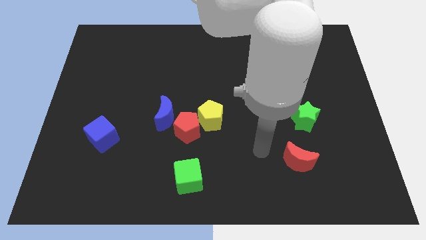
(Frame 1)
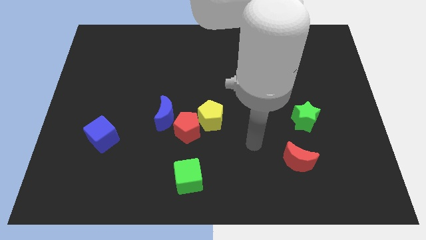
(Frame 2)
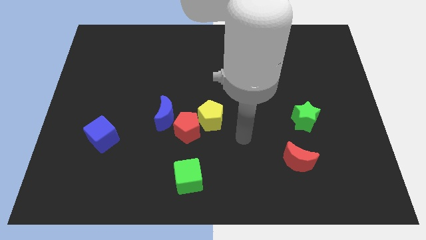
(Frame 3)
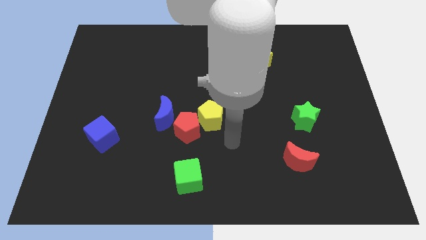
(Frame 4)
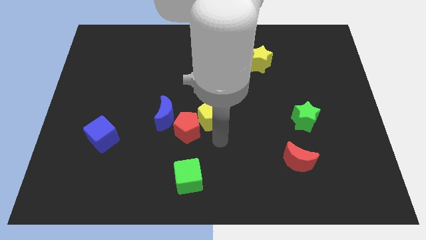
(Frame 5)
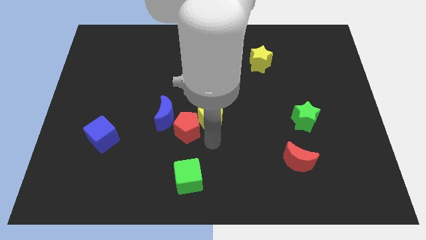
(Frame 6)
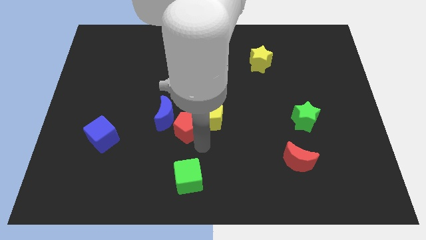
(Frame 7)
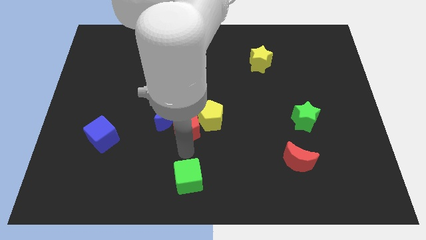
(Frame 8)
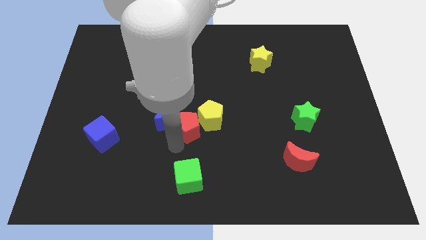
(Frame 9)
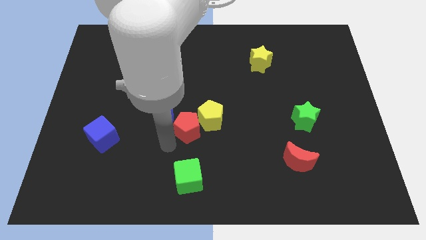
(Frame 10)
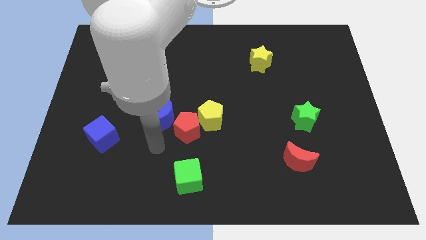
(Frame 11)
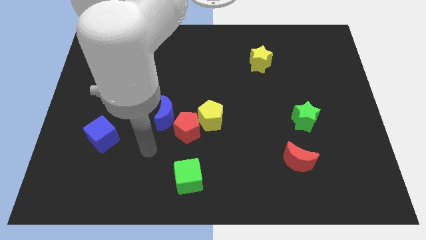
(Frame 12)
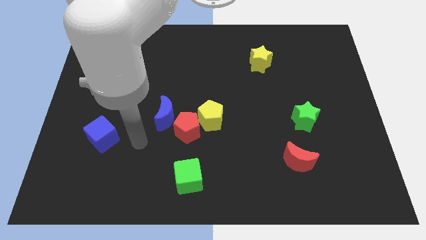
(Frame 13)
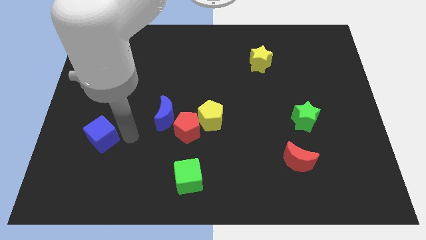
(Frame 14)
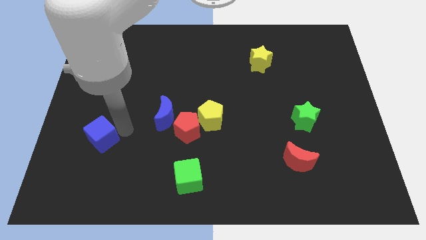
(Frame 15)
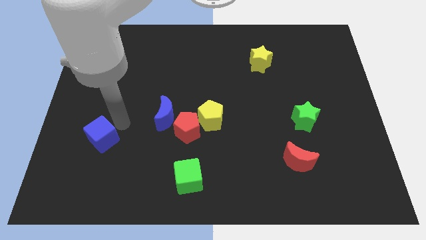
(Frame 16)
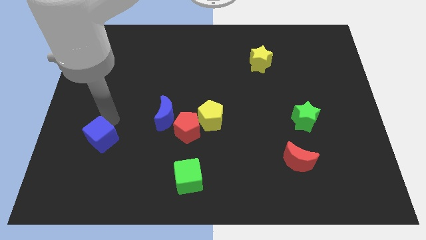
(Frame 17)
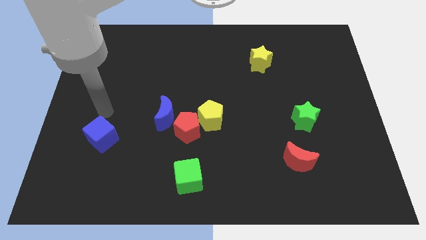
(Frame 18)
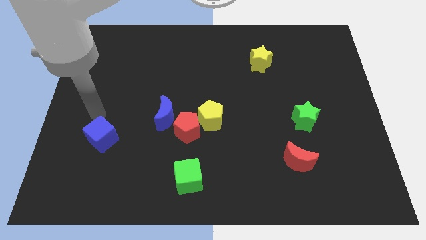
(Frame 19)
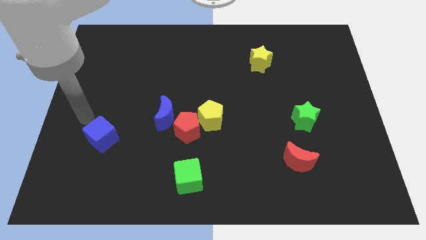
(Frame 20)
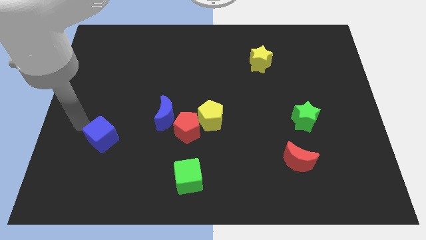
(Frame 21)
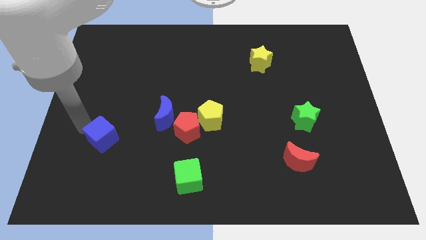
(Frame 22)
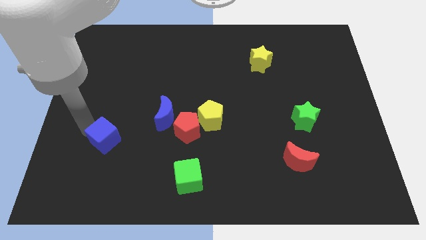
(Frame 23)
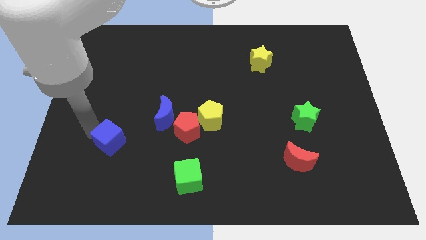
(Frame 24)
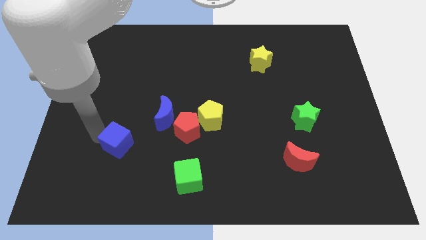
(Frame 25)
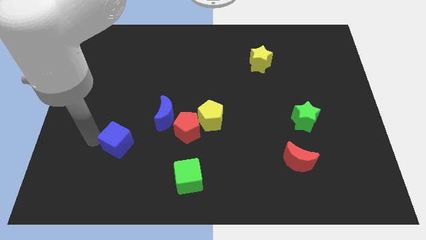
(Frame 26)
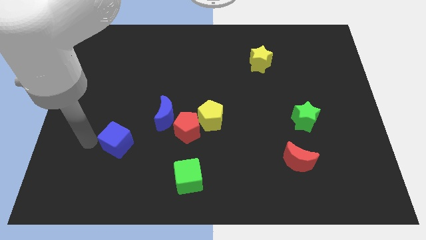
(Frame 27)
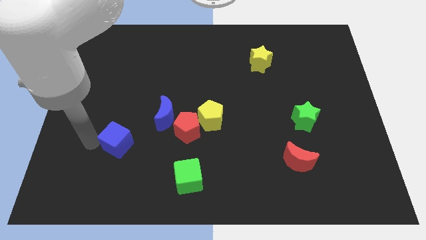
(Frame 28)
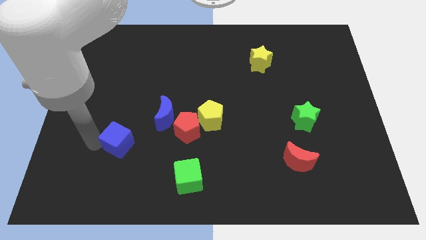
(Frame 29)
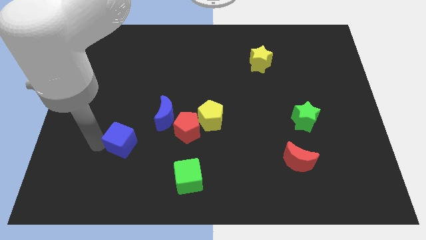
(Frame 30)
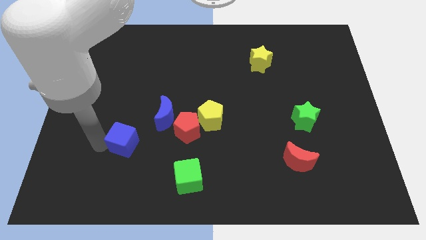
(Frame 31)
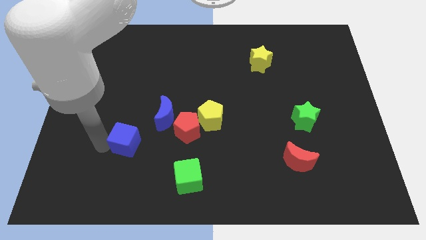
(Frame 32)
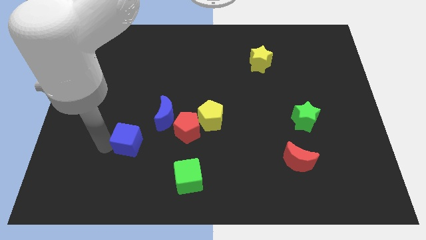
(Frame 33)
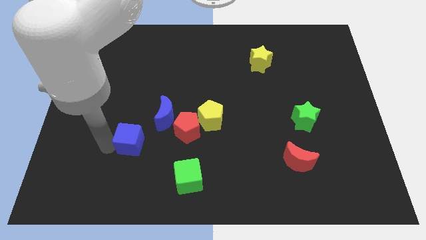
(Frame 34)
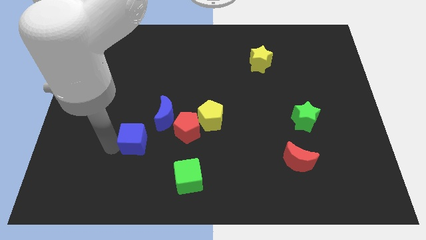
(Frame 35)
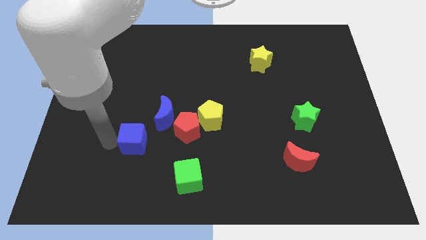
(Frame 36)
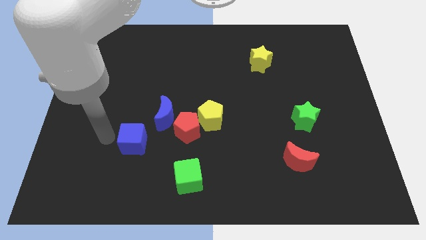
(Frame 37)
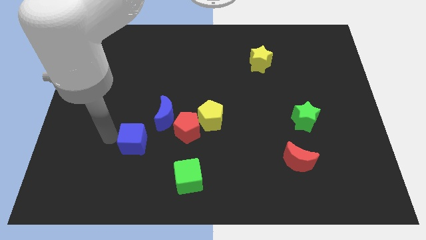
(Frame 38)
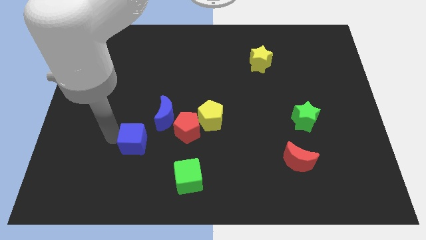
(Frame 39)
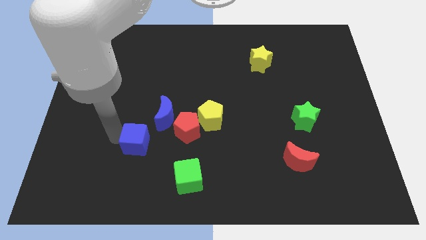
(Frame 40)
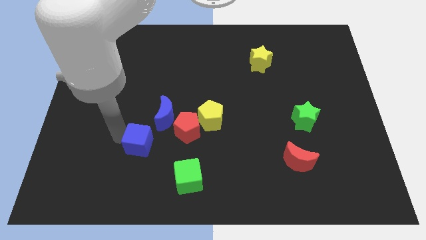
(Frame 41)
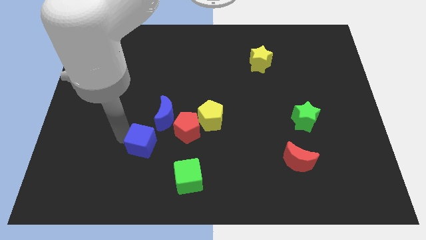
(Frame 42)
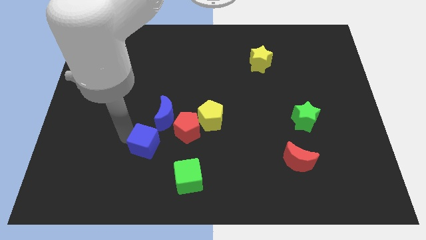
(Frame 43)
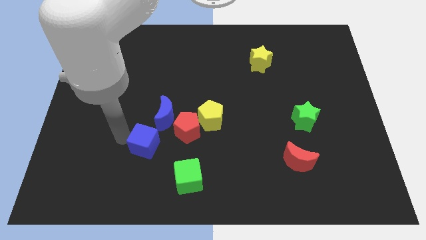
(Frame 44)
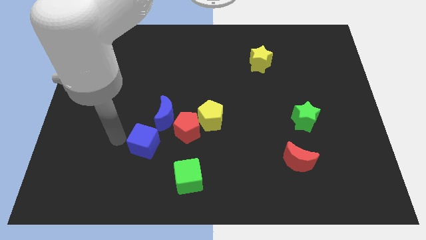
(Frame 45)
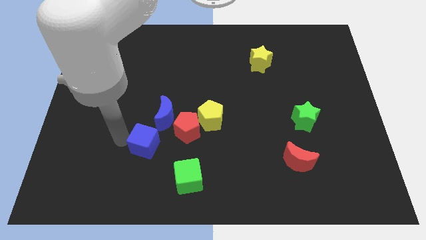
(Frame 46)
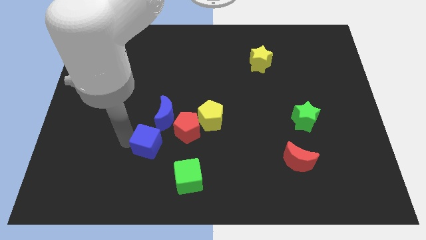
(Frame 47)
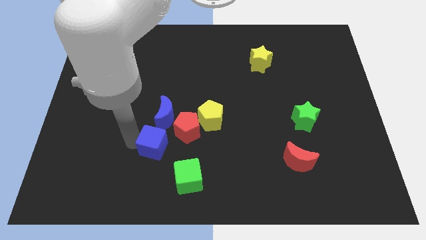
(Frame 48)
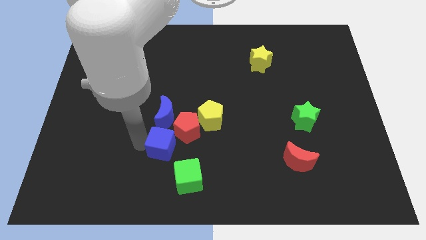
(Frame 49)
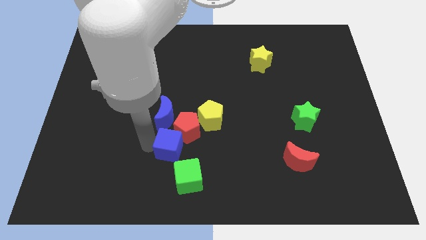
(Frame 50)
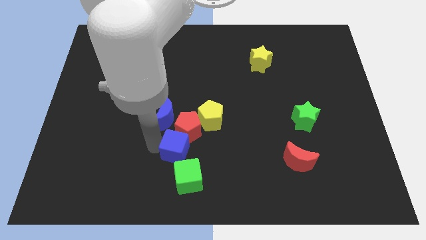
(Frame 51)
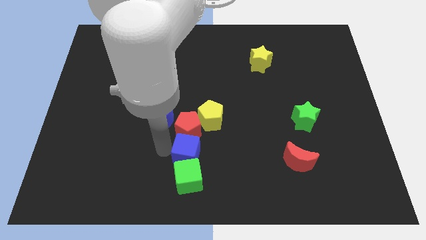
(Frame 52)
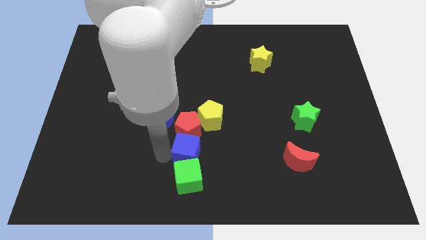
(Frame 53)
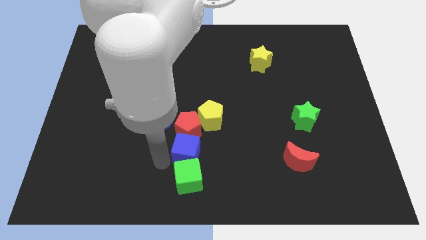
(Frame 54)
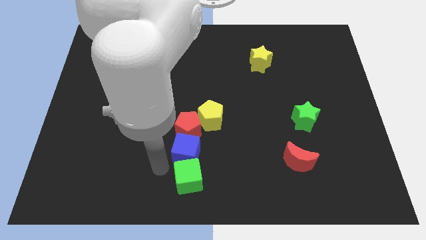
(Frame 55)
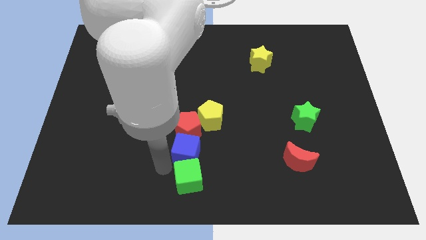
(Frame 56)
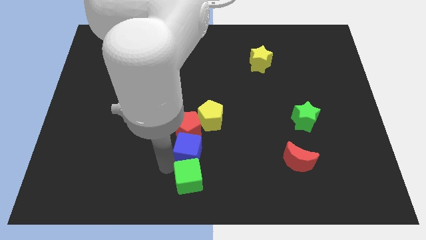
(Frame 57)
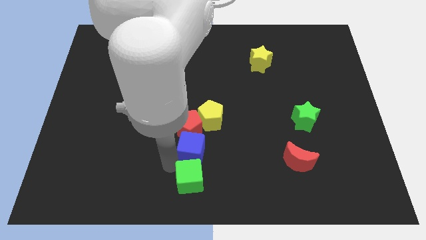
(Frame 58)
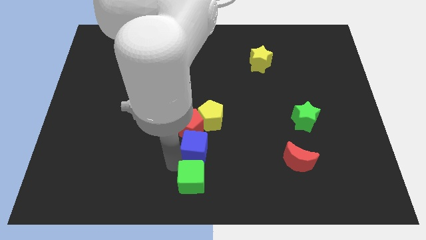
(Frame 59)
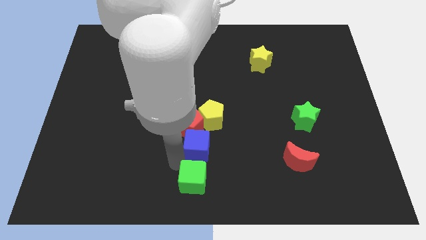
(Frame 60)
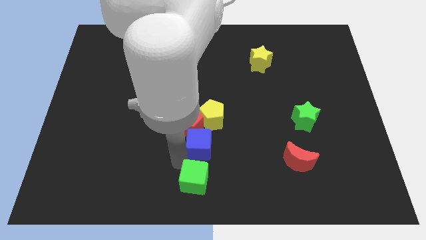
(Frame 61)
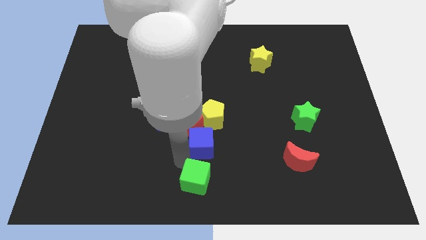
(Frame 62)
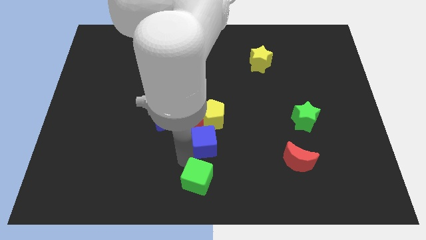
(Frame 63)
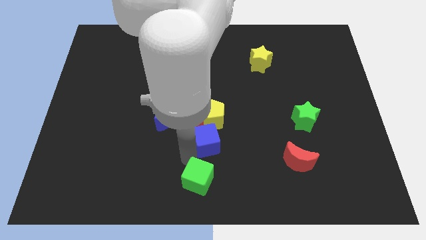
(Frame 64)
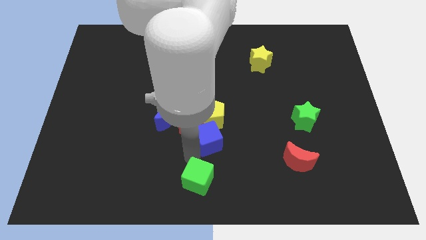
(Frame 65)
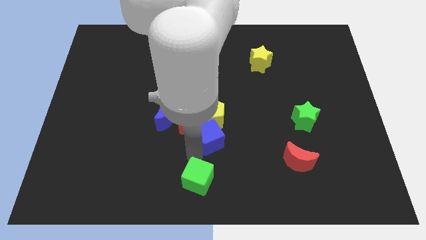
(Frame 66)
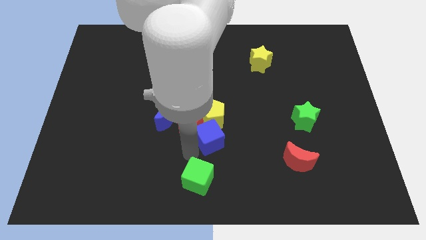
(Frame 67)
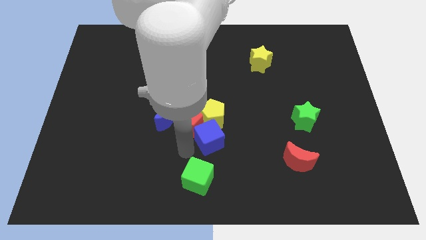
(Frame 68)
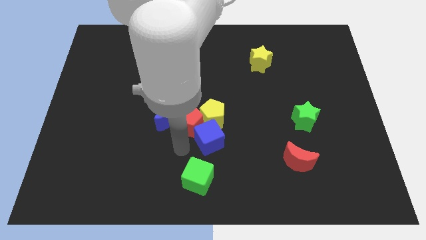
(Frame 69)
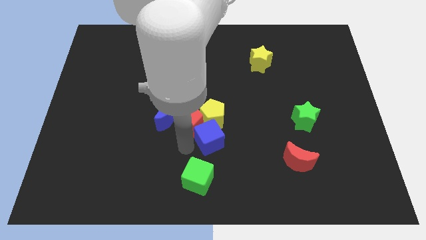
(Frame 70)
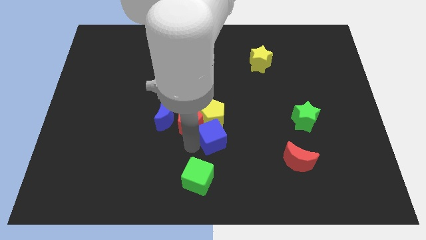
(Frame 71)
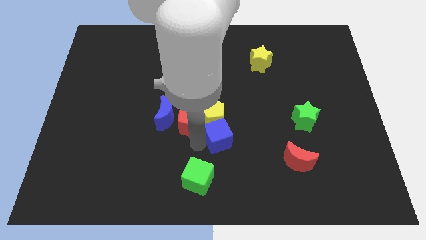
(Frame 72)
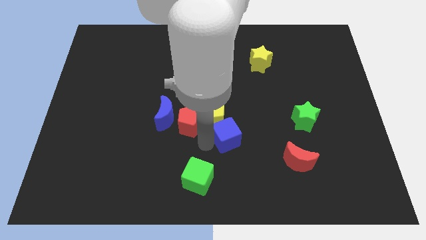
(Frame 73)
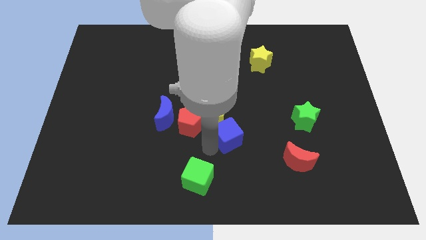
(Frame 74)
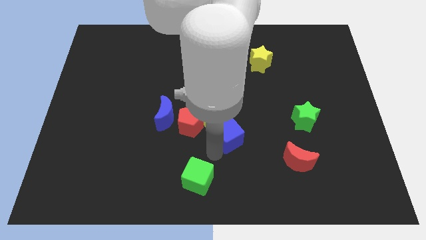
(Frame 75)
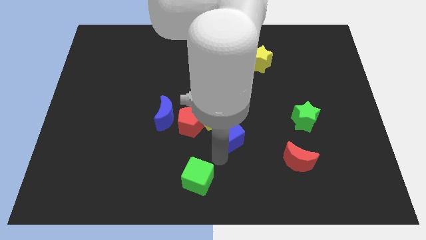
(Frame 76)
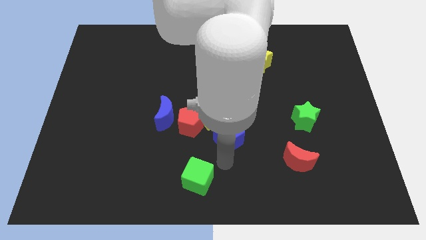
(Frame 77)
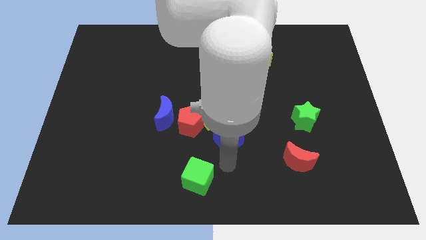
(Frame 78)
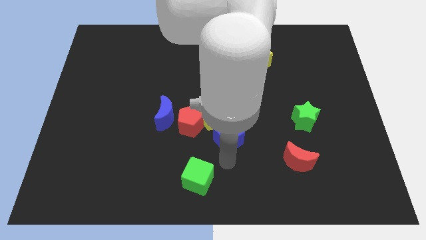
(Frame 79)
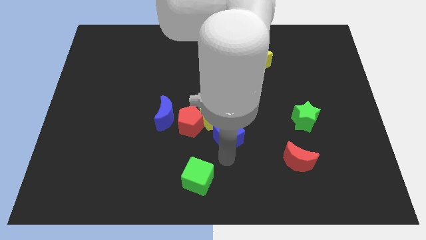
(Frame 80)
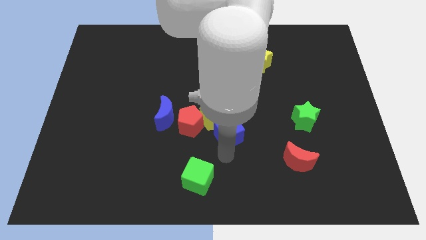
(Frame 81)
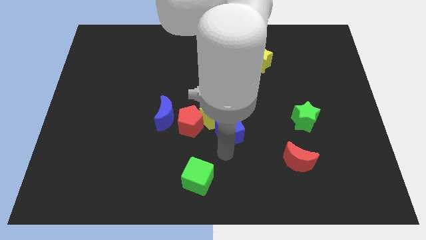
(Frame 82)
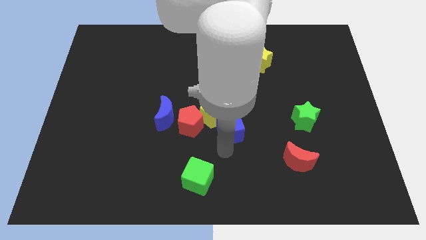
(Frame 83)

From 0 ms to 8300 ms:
move the blue cube right of the blue moon
